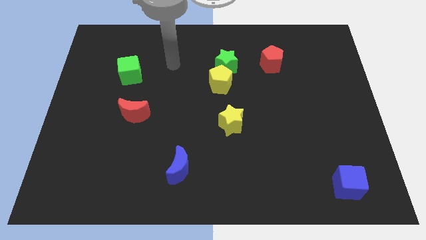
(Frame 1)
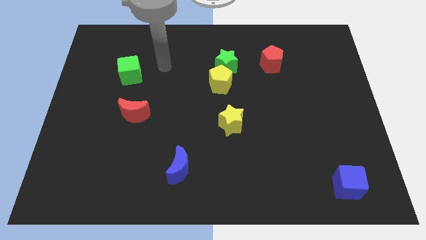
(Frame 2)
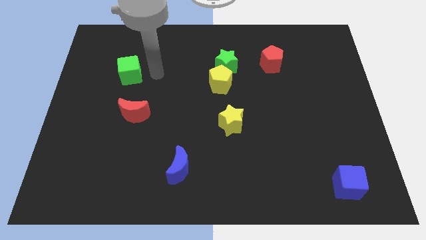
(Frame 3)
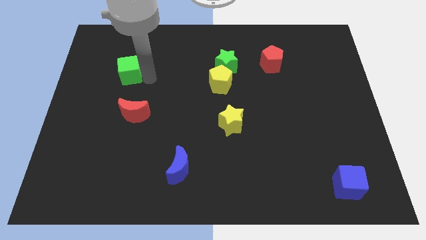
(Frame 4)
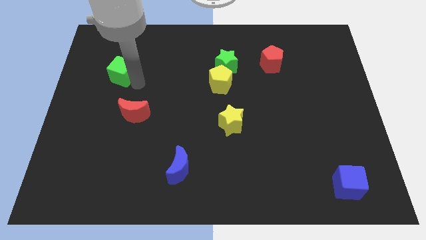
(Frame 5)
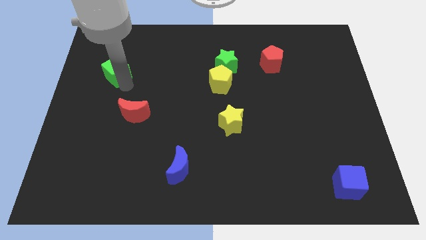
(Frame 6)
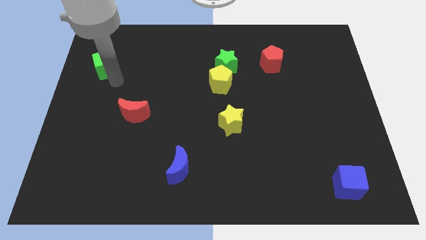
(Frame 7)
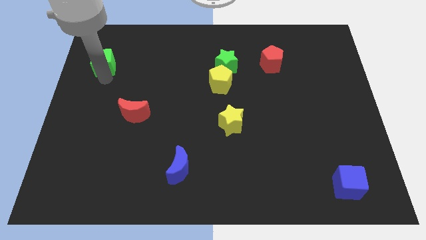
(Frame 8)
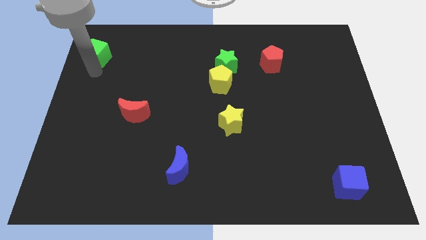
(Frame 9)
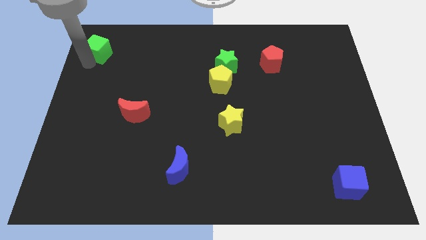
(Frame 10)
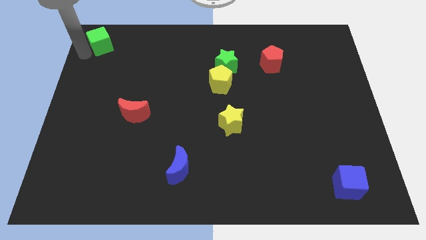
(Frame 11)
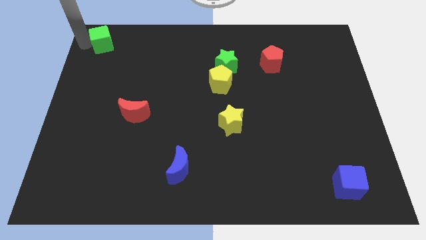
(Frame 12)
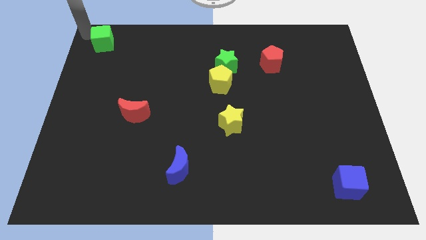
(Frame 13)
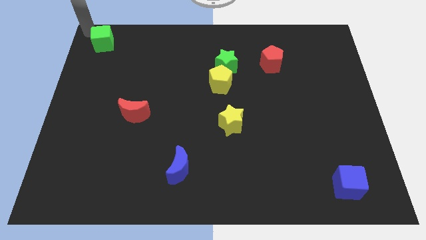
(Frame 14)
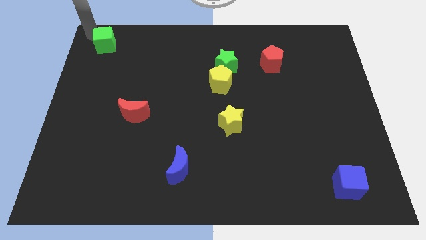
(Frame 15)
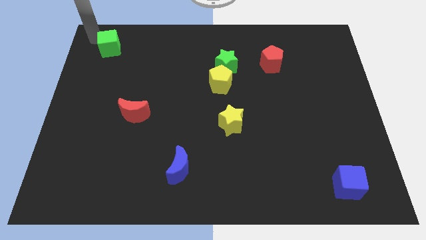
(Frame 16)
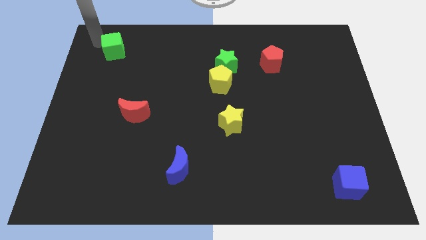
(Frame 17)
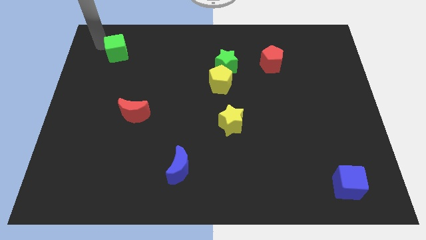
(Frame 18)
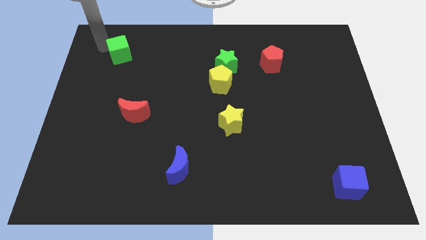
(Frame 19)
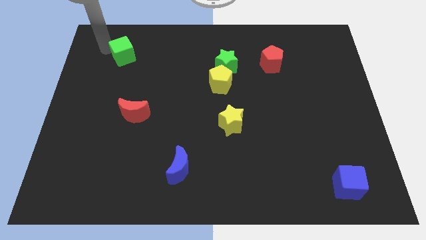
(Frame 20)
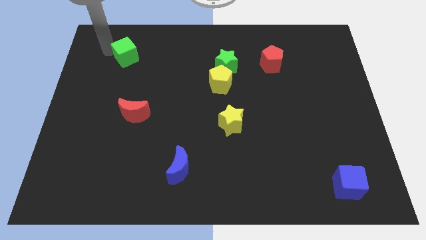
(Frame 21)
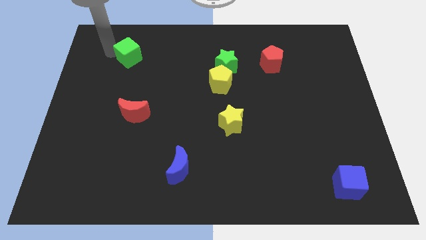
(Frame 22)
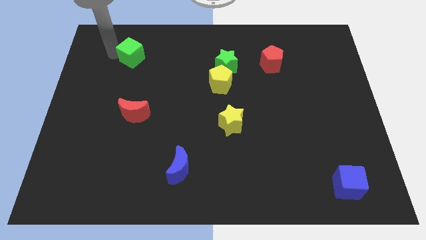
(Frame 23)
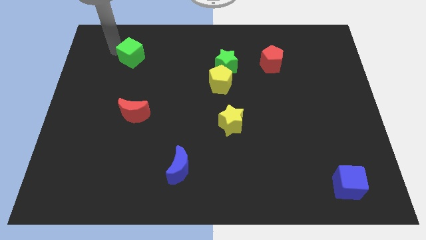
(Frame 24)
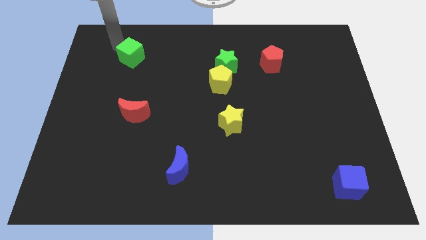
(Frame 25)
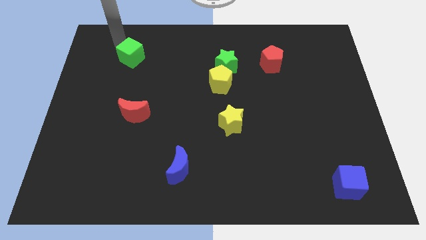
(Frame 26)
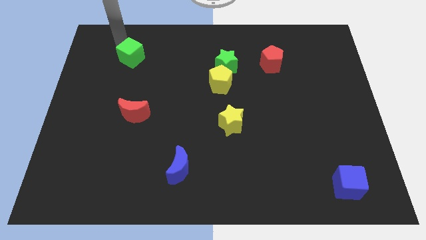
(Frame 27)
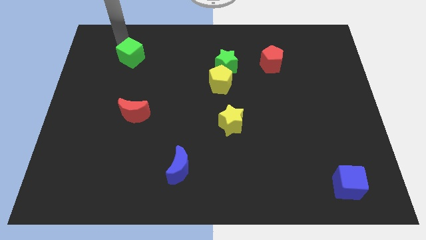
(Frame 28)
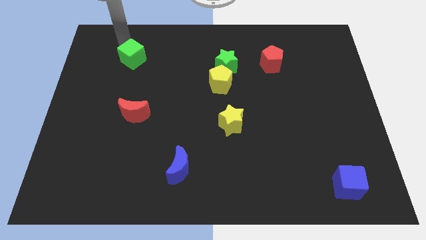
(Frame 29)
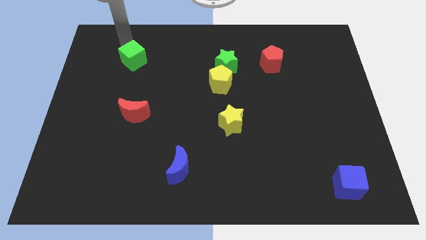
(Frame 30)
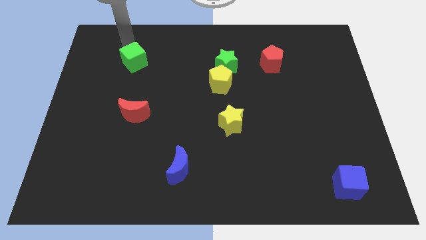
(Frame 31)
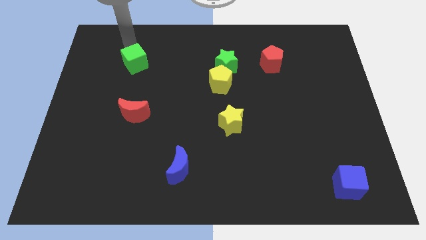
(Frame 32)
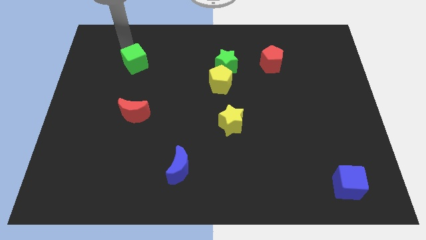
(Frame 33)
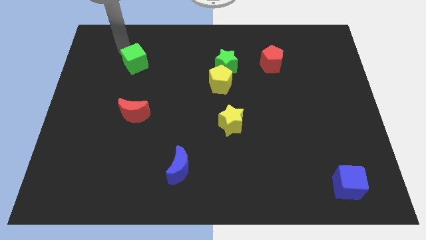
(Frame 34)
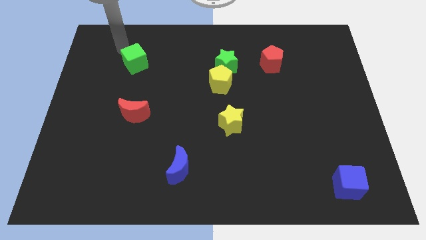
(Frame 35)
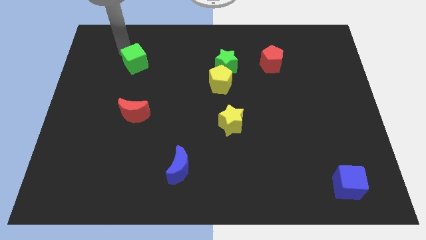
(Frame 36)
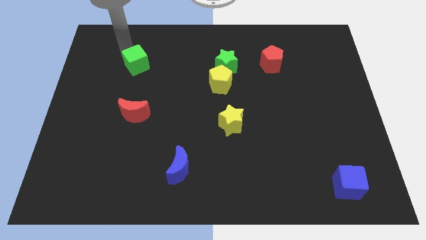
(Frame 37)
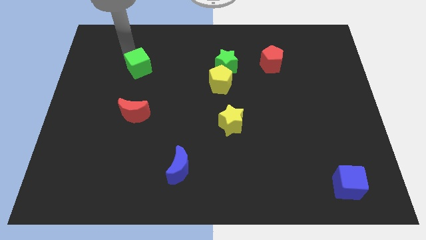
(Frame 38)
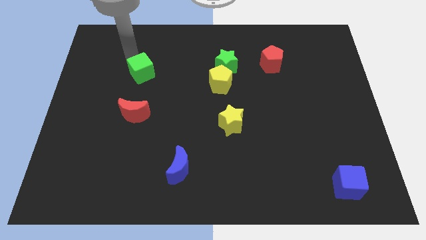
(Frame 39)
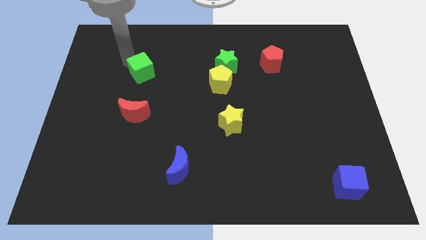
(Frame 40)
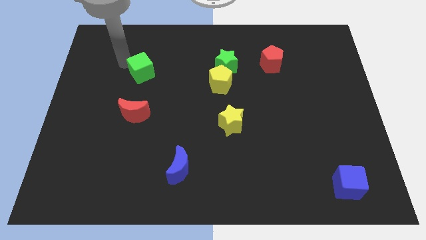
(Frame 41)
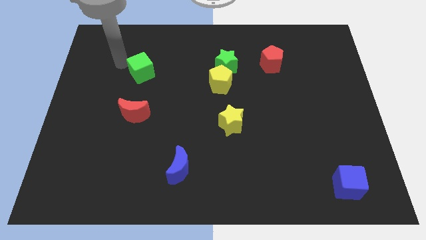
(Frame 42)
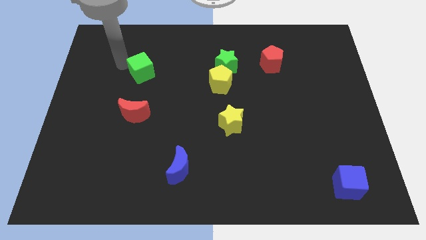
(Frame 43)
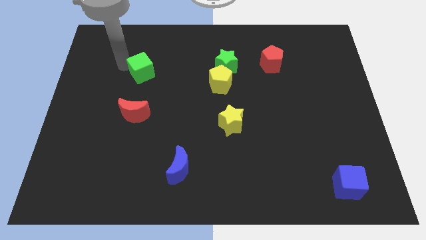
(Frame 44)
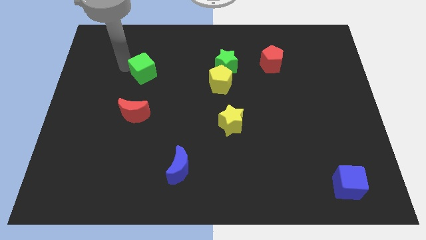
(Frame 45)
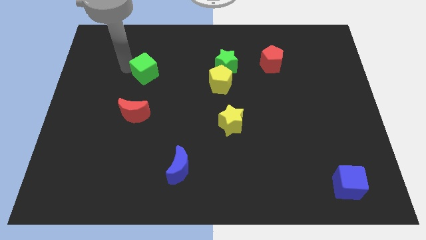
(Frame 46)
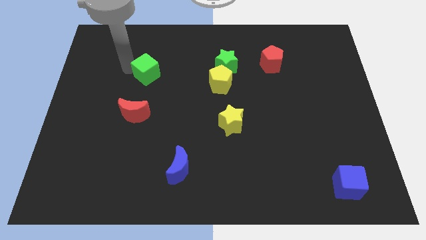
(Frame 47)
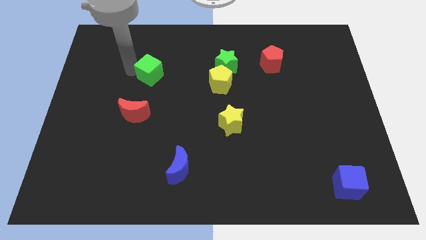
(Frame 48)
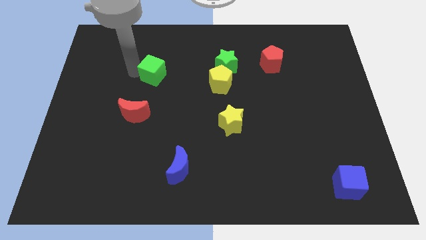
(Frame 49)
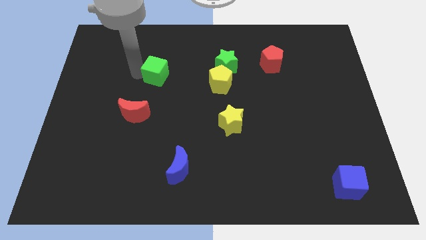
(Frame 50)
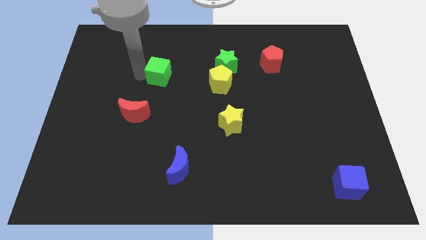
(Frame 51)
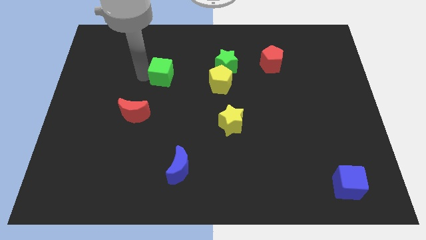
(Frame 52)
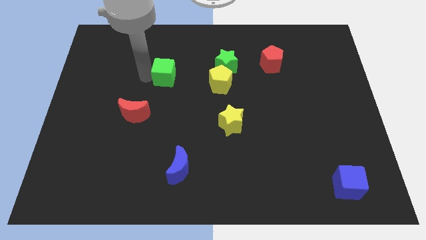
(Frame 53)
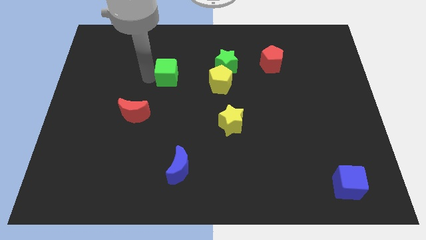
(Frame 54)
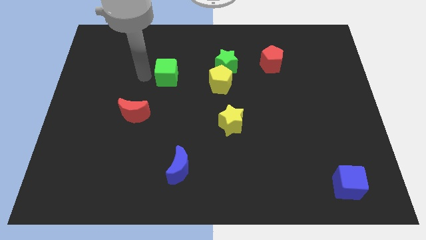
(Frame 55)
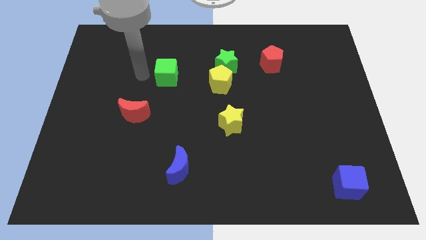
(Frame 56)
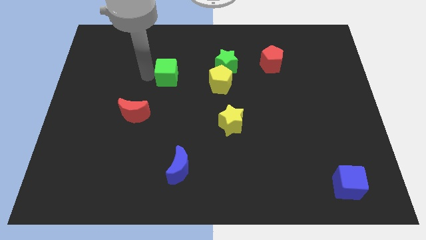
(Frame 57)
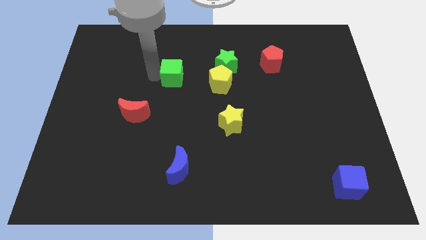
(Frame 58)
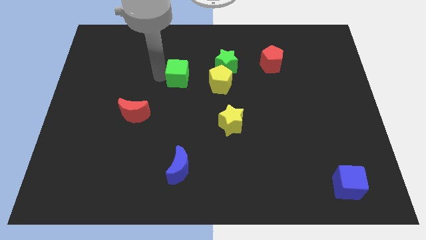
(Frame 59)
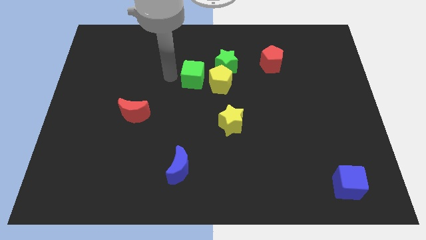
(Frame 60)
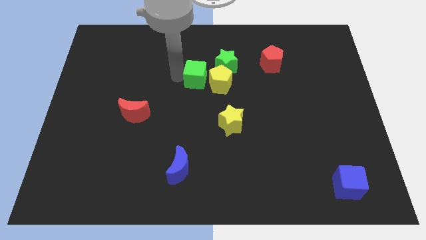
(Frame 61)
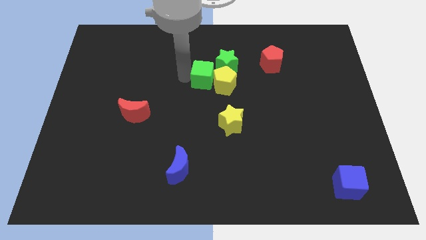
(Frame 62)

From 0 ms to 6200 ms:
move the green cube close to the yellow pentagon

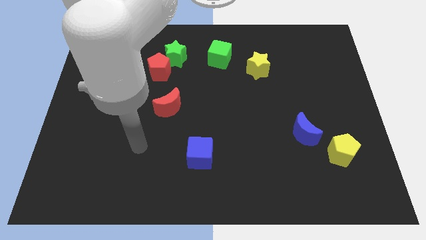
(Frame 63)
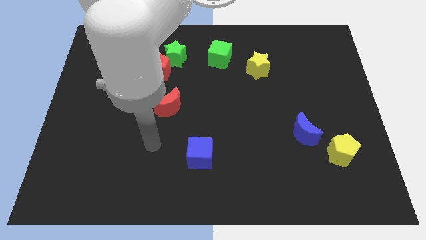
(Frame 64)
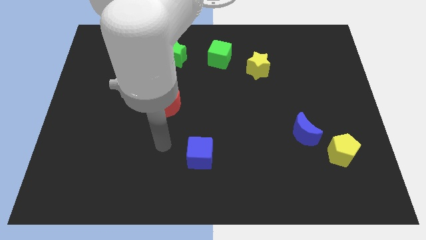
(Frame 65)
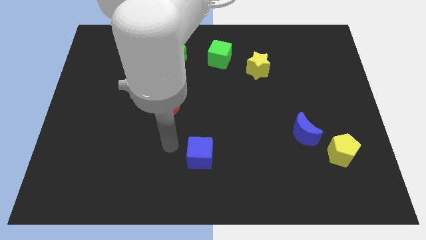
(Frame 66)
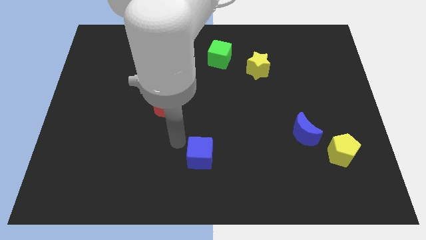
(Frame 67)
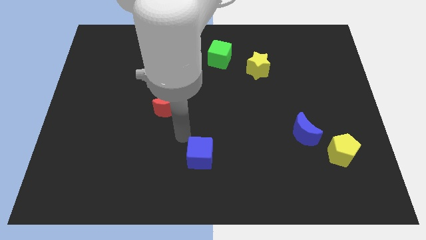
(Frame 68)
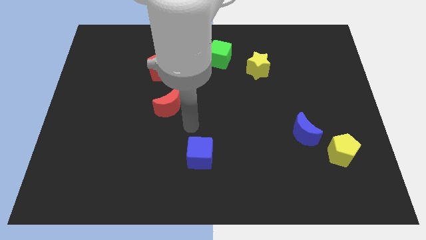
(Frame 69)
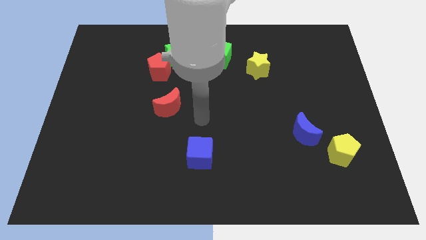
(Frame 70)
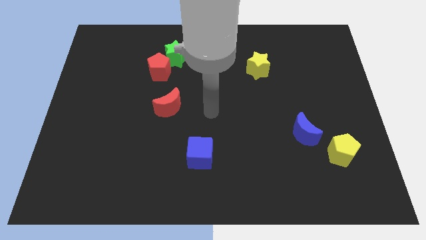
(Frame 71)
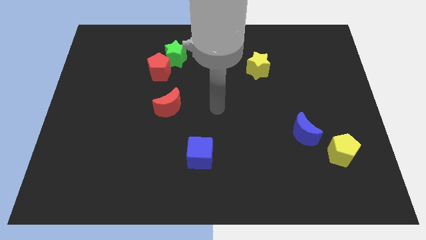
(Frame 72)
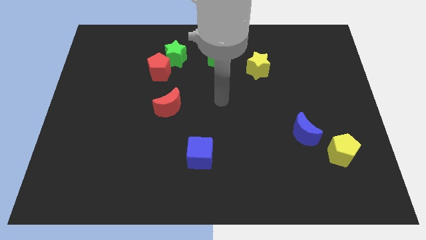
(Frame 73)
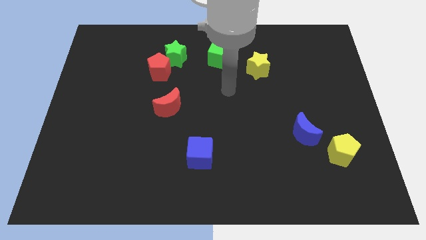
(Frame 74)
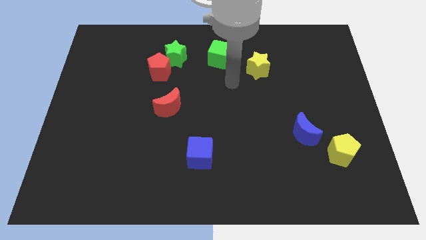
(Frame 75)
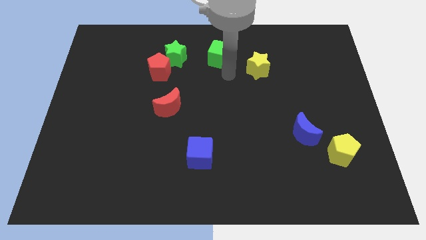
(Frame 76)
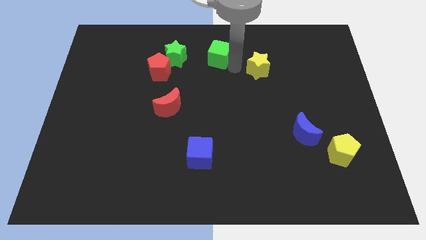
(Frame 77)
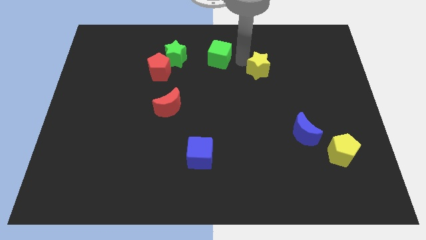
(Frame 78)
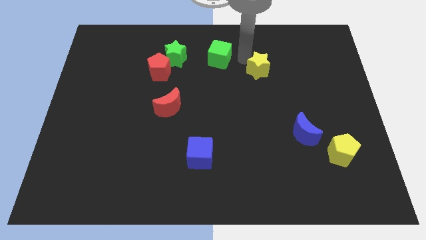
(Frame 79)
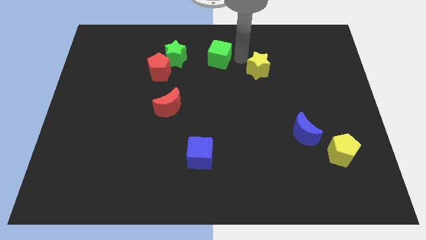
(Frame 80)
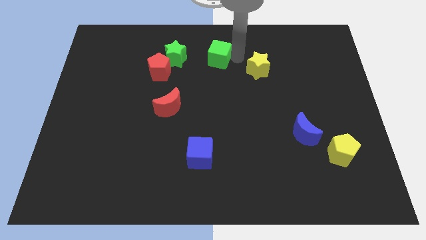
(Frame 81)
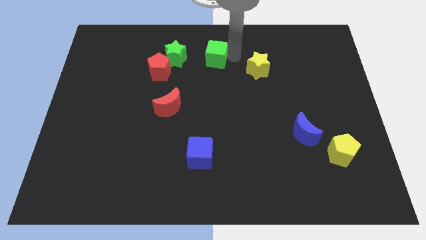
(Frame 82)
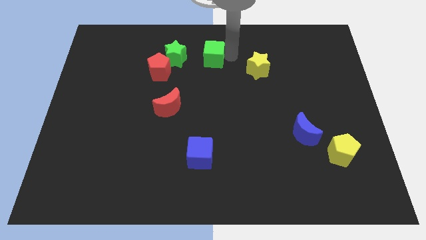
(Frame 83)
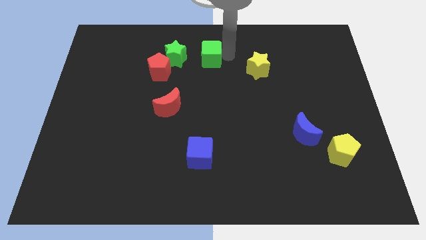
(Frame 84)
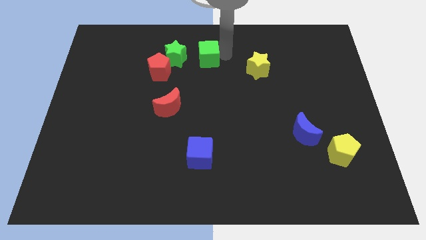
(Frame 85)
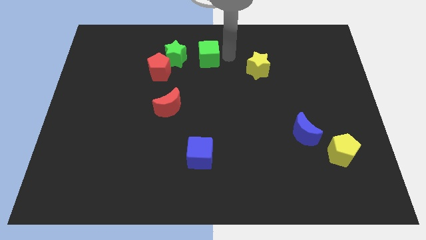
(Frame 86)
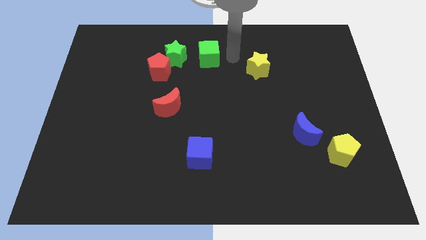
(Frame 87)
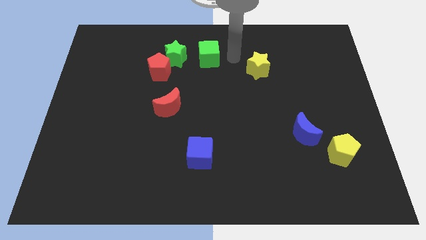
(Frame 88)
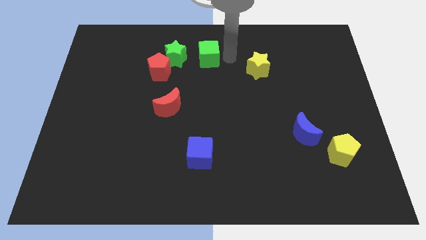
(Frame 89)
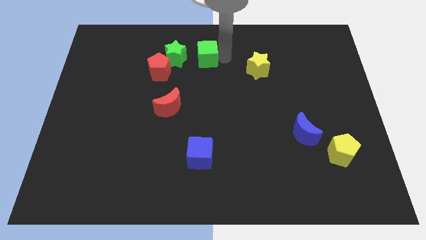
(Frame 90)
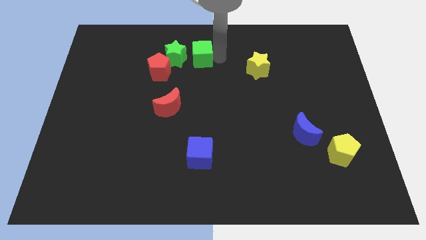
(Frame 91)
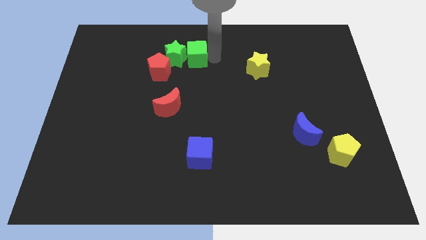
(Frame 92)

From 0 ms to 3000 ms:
slide the green cube to the green star
